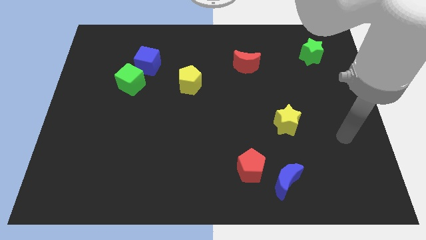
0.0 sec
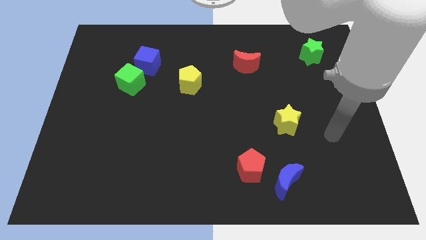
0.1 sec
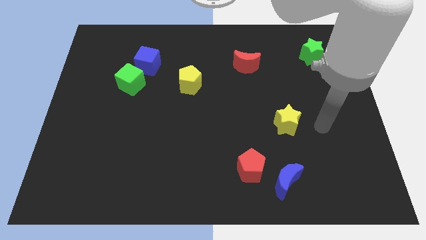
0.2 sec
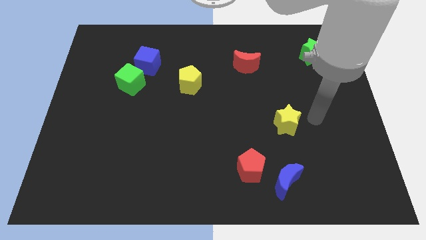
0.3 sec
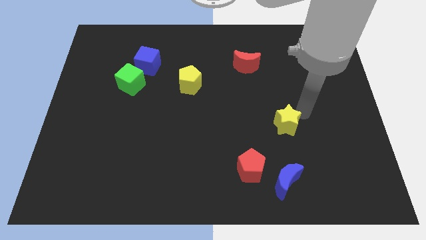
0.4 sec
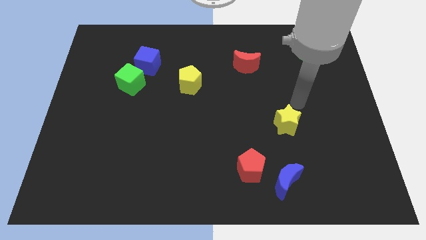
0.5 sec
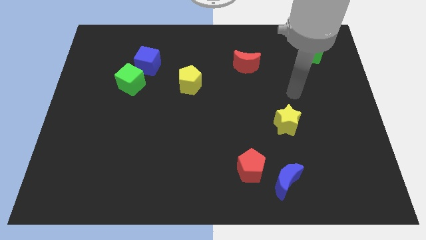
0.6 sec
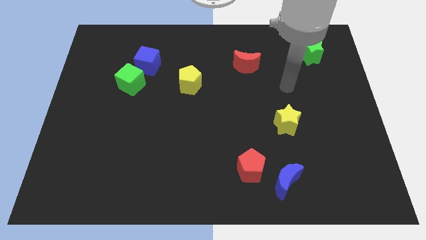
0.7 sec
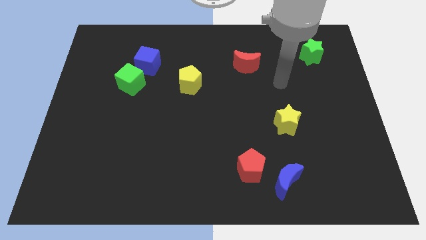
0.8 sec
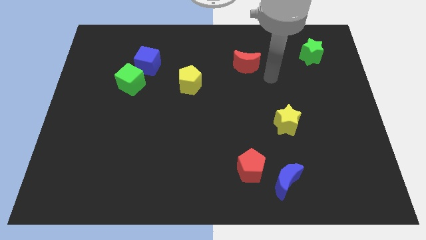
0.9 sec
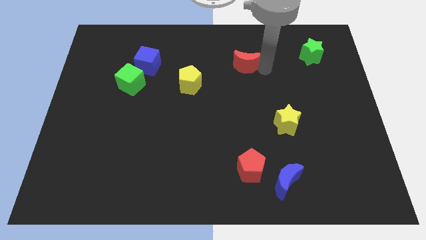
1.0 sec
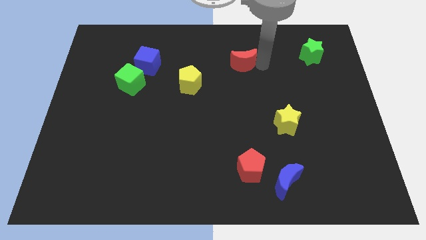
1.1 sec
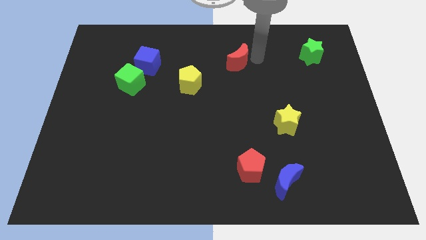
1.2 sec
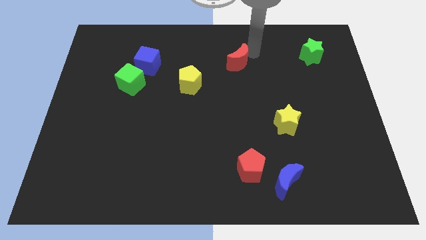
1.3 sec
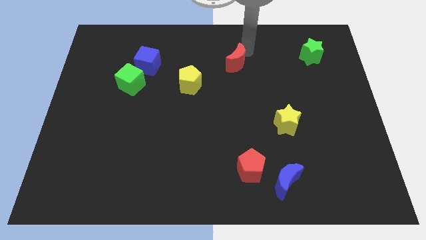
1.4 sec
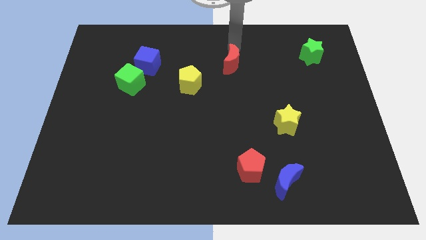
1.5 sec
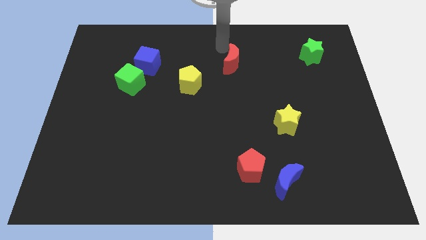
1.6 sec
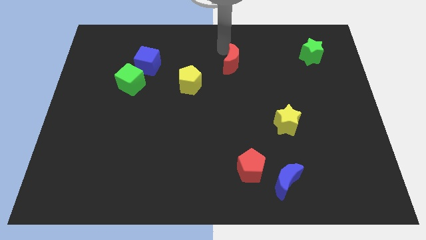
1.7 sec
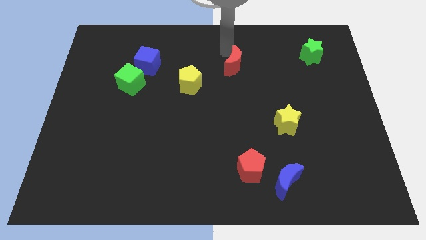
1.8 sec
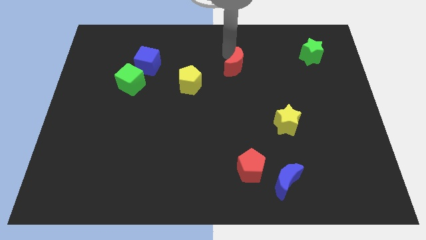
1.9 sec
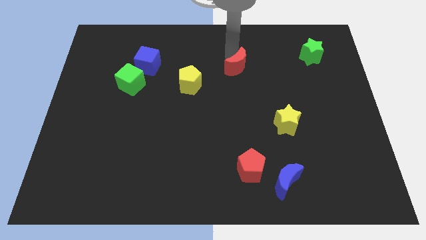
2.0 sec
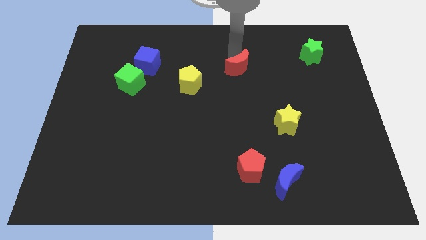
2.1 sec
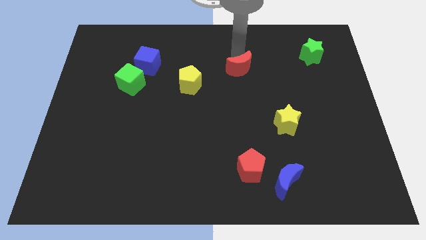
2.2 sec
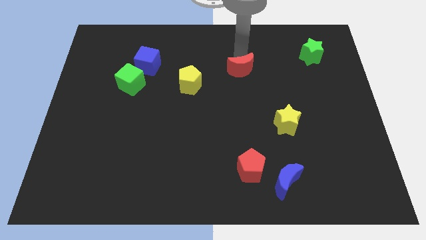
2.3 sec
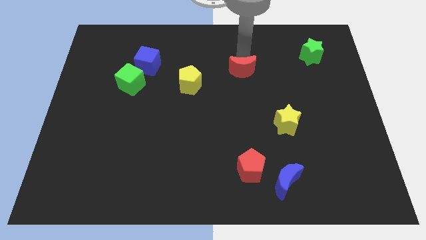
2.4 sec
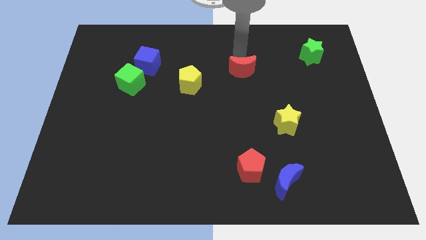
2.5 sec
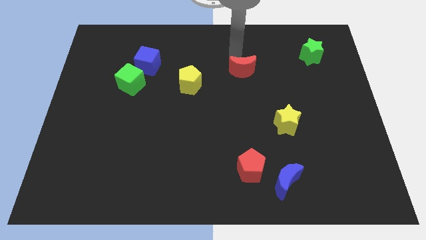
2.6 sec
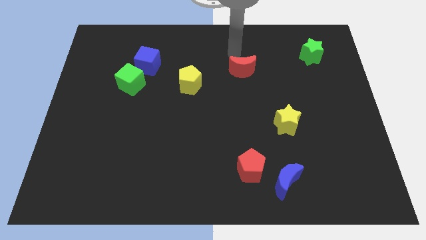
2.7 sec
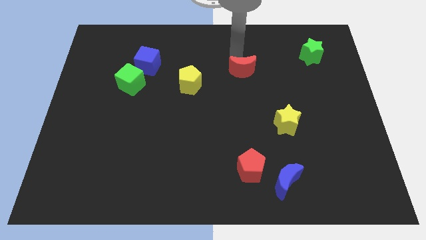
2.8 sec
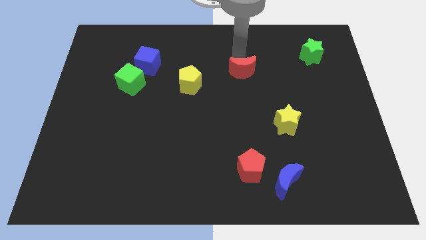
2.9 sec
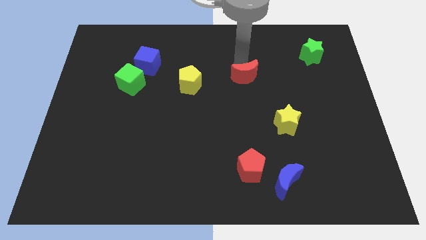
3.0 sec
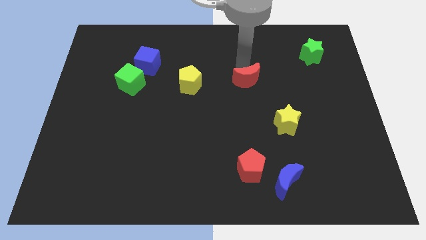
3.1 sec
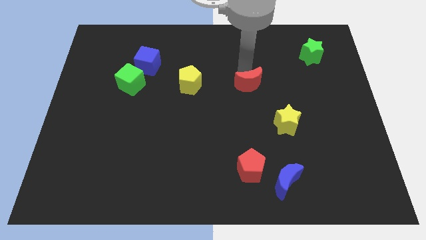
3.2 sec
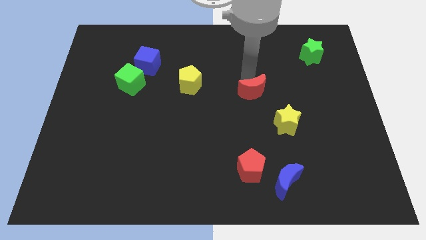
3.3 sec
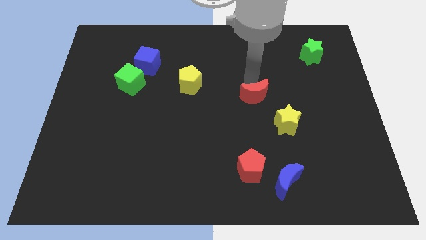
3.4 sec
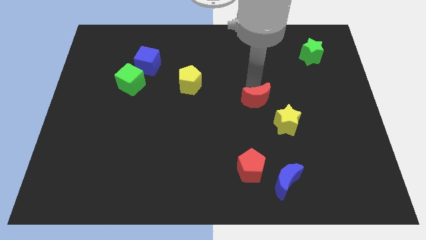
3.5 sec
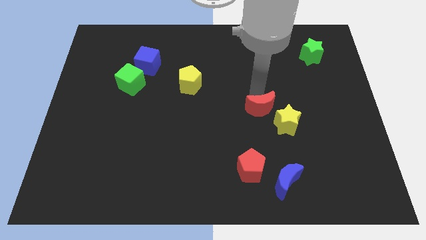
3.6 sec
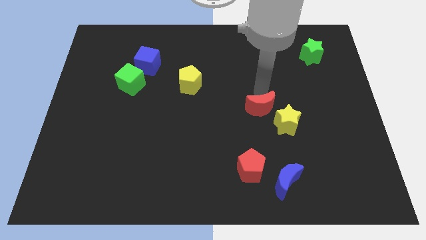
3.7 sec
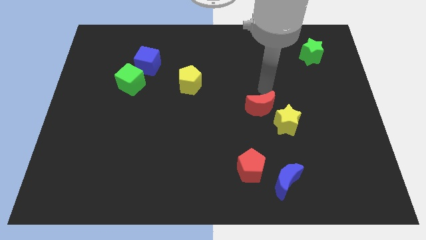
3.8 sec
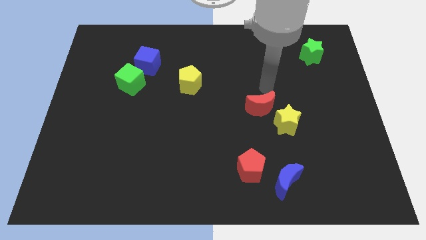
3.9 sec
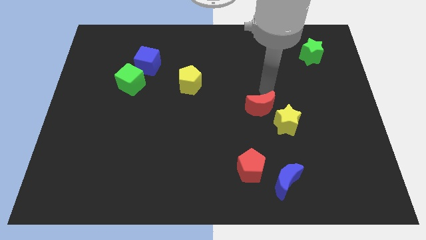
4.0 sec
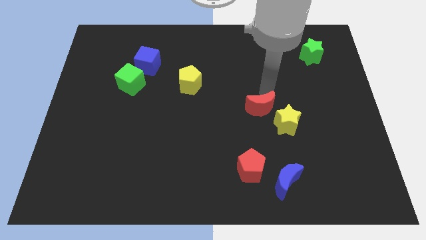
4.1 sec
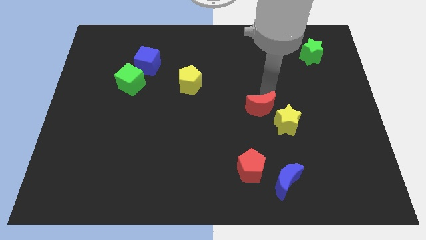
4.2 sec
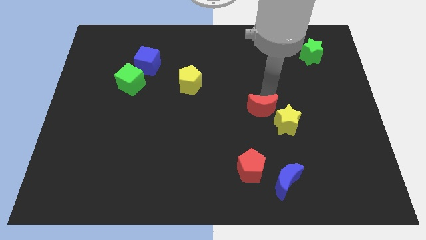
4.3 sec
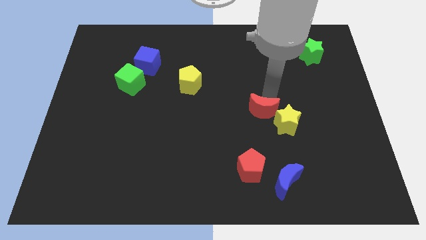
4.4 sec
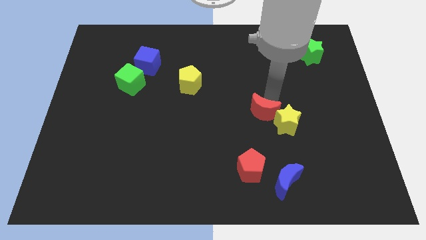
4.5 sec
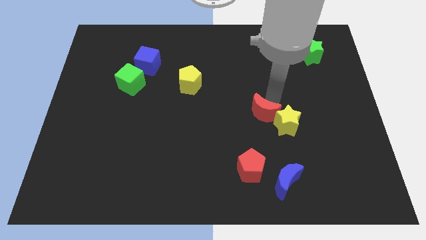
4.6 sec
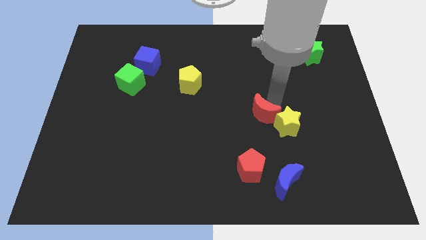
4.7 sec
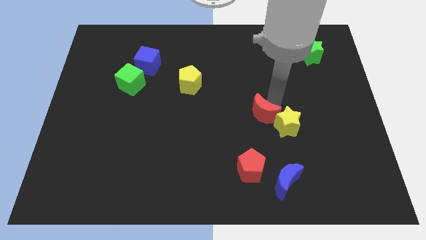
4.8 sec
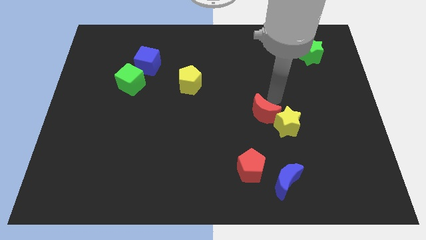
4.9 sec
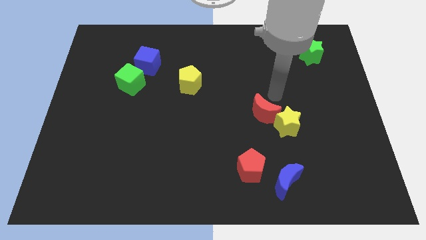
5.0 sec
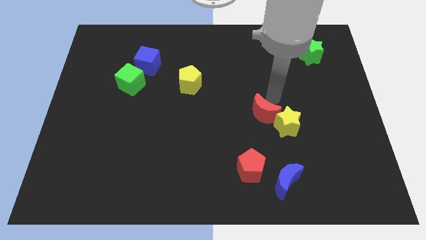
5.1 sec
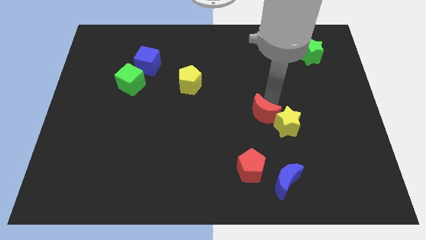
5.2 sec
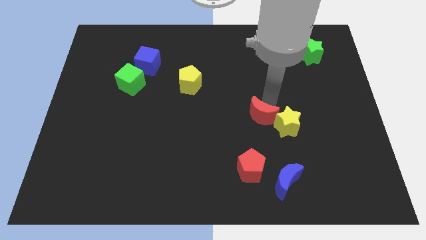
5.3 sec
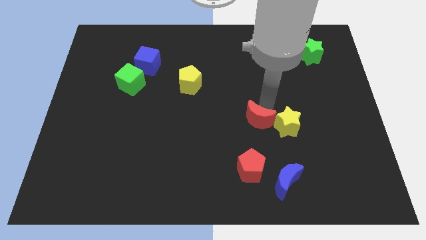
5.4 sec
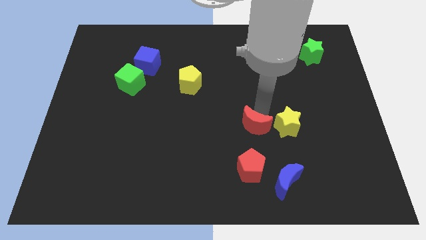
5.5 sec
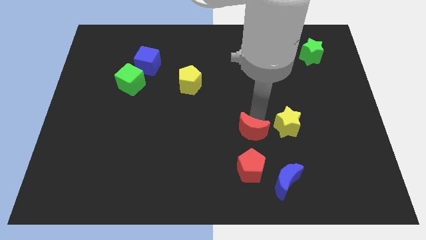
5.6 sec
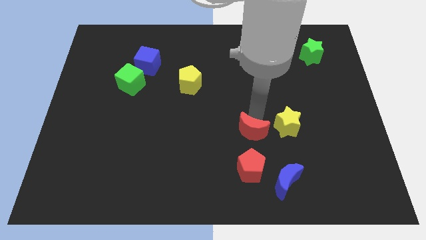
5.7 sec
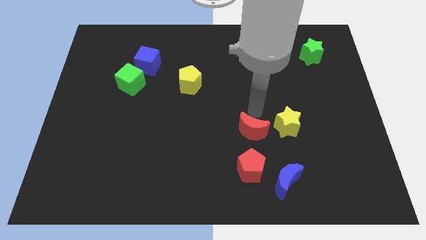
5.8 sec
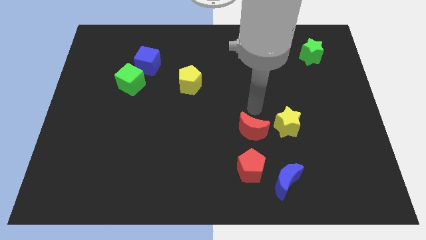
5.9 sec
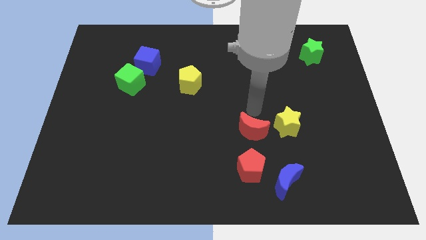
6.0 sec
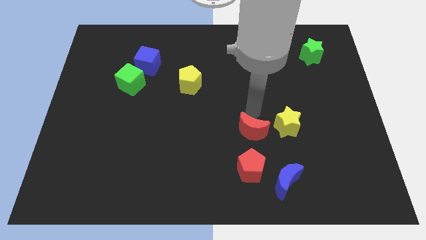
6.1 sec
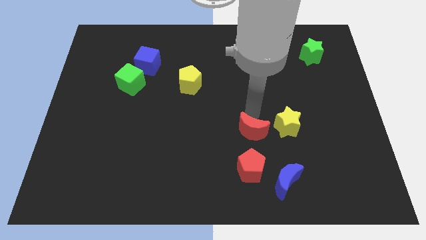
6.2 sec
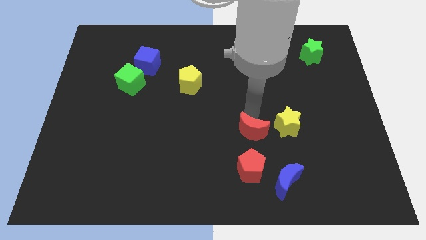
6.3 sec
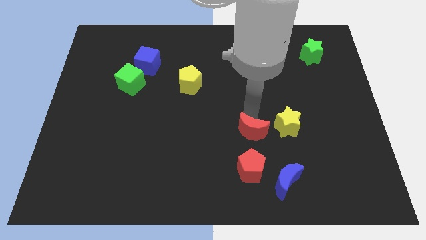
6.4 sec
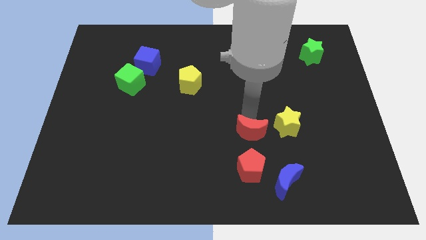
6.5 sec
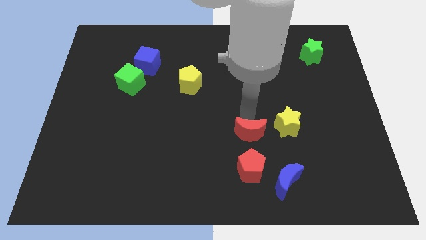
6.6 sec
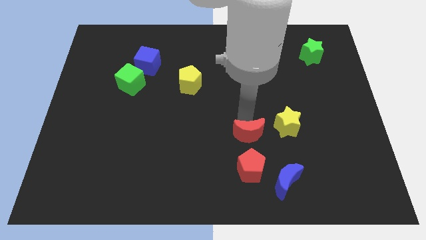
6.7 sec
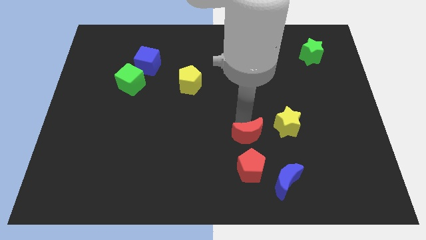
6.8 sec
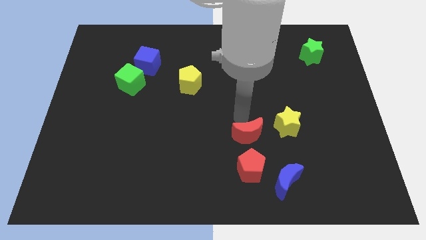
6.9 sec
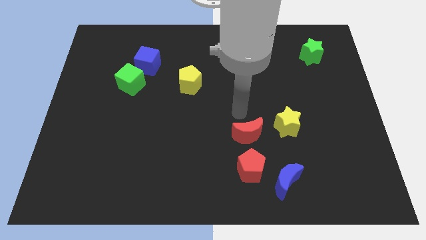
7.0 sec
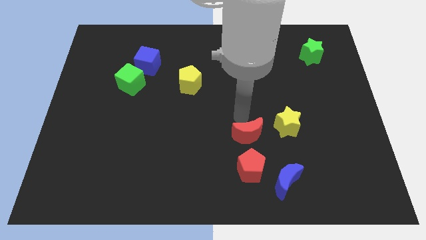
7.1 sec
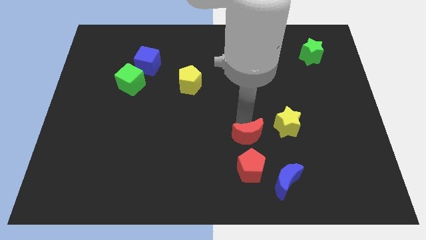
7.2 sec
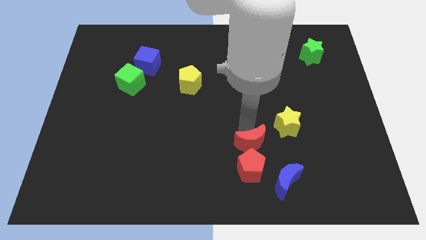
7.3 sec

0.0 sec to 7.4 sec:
put the red moon to the top left of the blue moon
